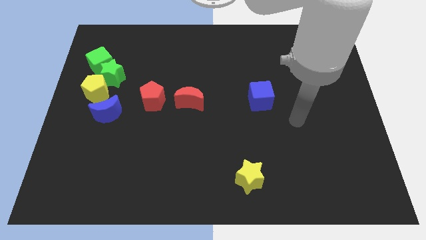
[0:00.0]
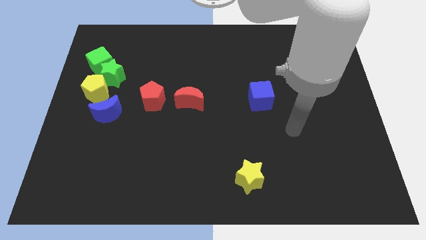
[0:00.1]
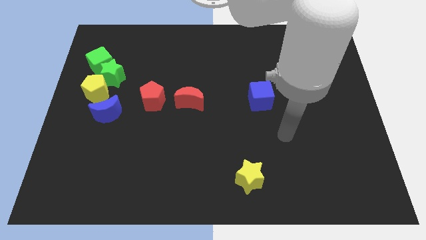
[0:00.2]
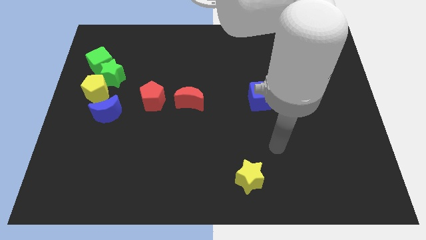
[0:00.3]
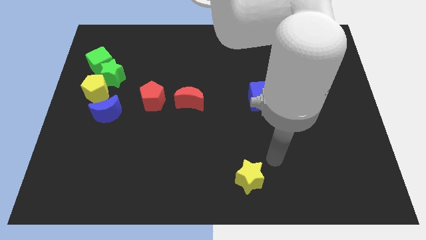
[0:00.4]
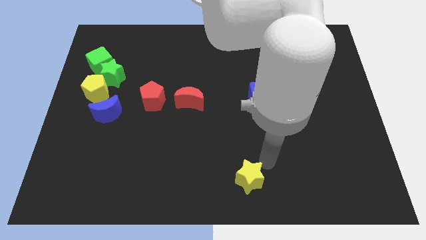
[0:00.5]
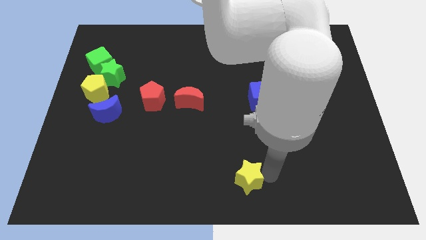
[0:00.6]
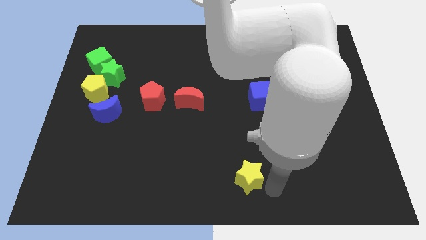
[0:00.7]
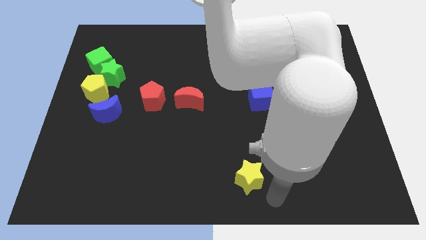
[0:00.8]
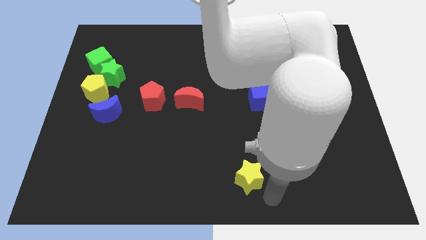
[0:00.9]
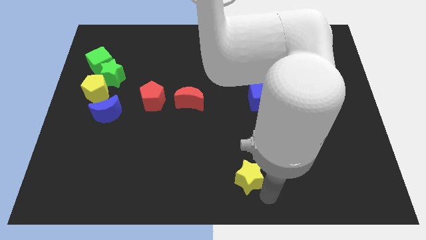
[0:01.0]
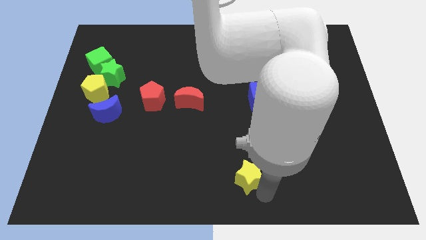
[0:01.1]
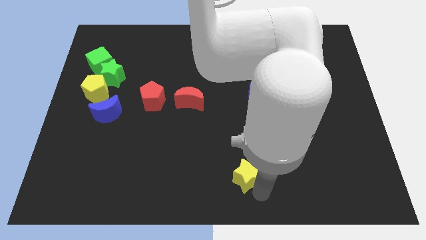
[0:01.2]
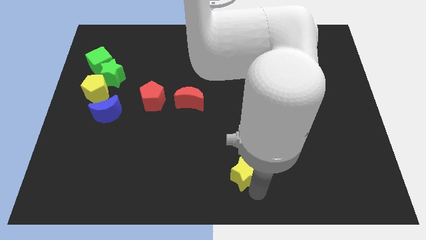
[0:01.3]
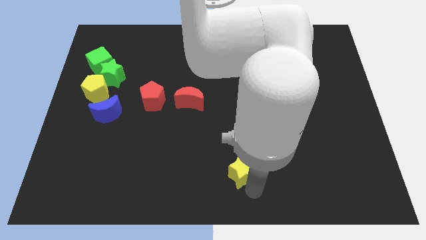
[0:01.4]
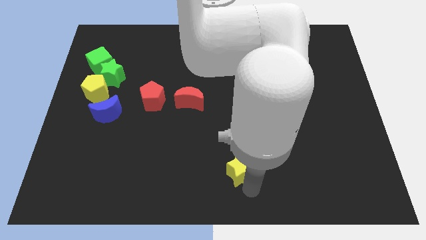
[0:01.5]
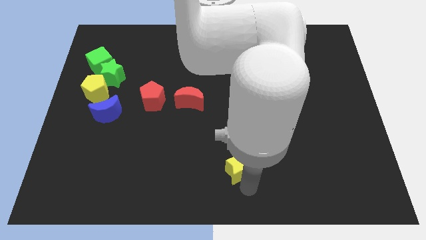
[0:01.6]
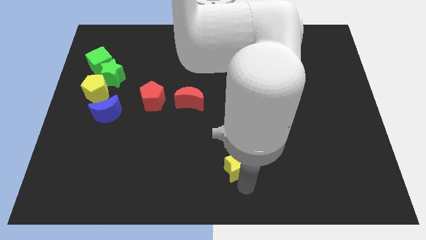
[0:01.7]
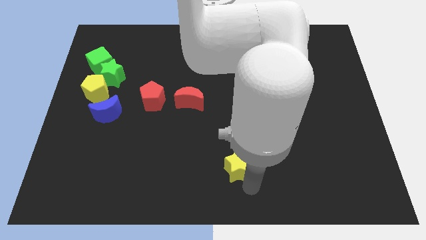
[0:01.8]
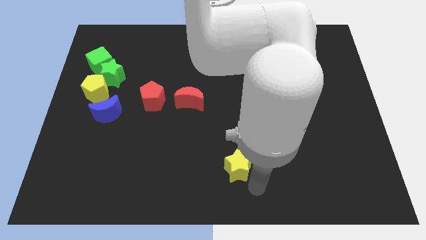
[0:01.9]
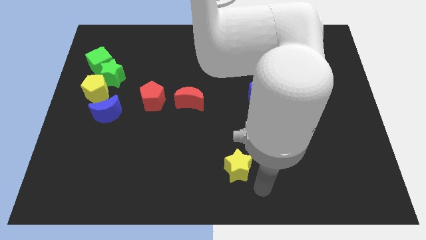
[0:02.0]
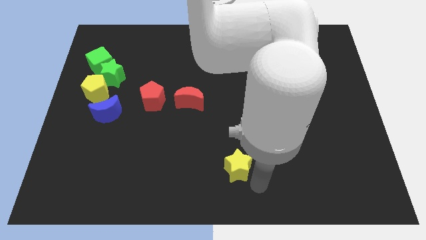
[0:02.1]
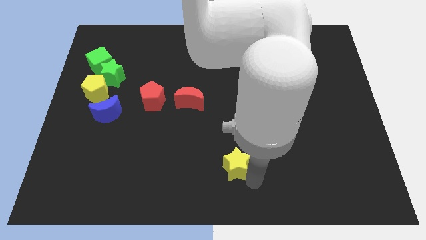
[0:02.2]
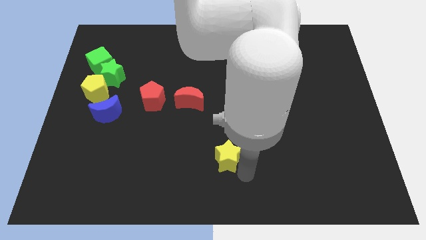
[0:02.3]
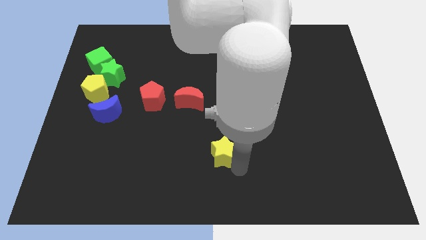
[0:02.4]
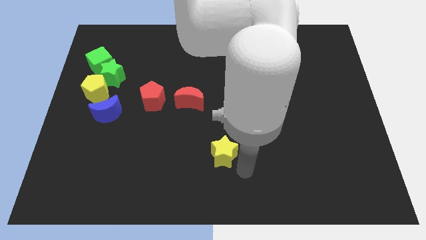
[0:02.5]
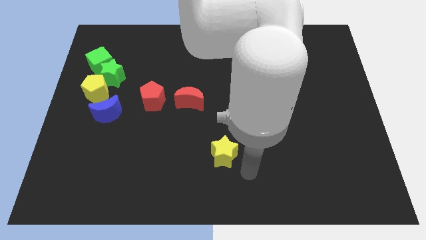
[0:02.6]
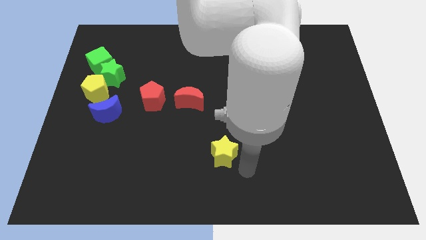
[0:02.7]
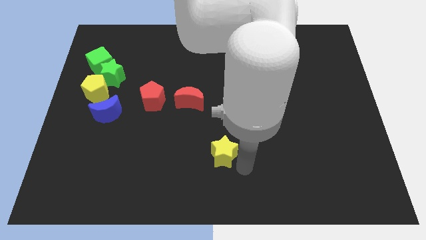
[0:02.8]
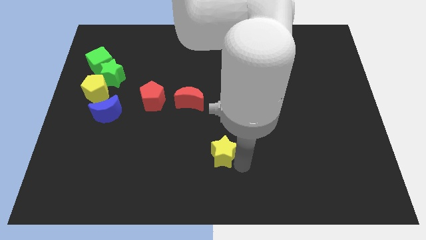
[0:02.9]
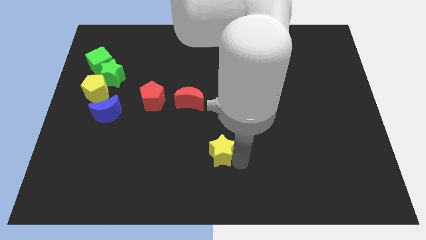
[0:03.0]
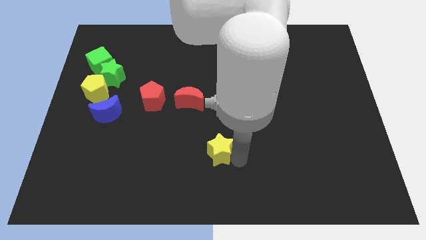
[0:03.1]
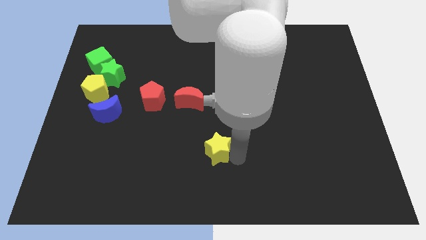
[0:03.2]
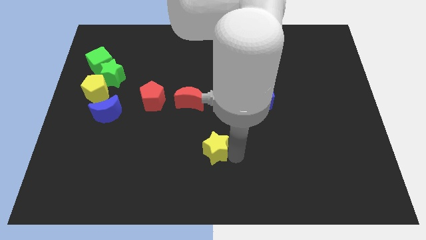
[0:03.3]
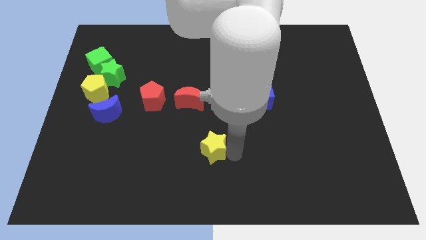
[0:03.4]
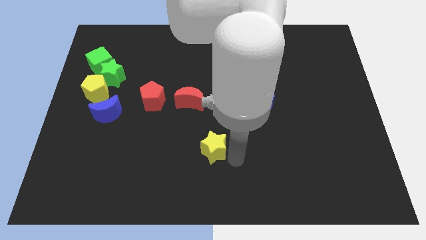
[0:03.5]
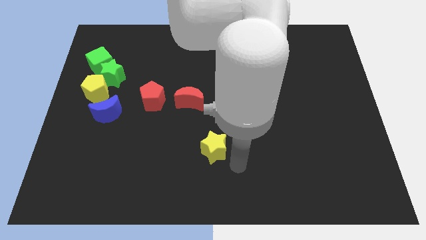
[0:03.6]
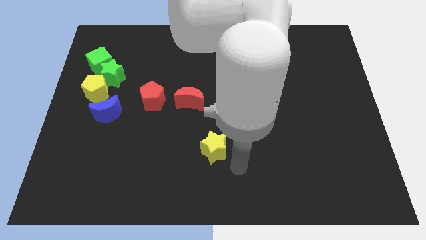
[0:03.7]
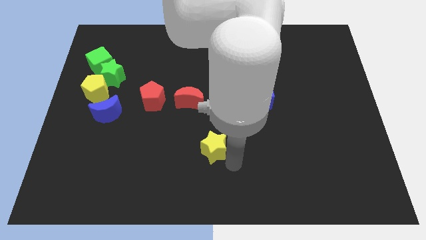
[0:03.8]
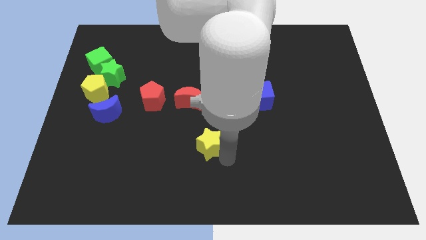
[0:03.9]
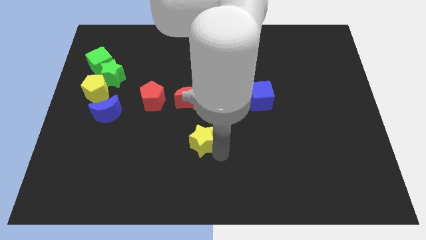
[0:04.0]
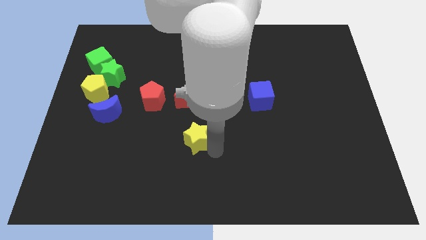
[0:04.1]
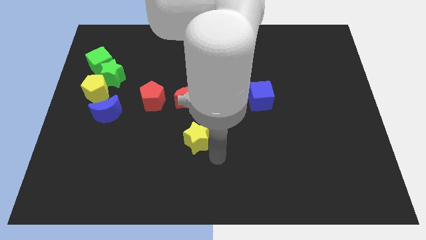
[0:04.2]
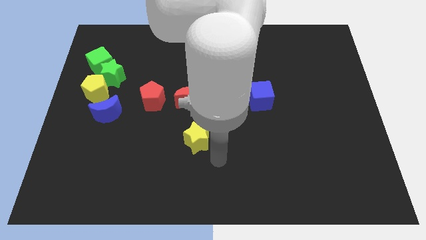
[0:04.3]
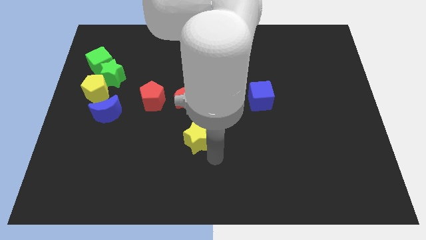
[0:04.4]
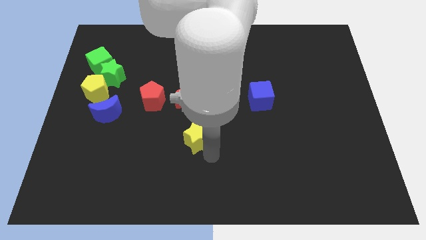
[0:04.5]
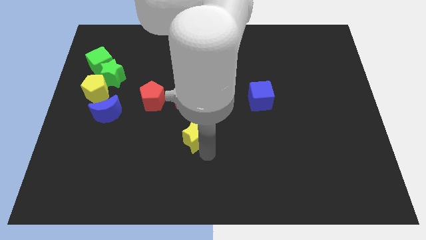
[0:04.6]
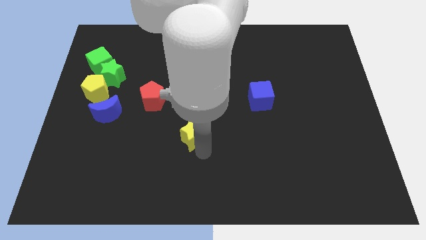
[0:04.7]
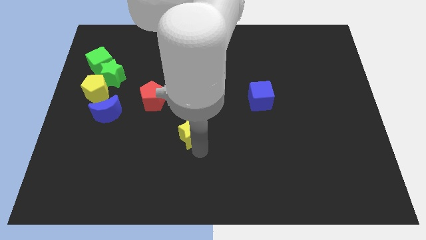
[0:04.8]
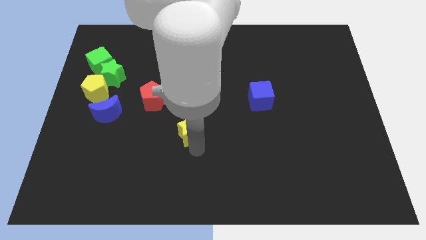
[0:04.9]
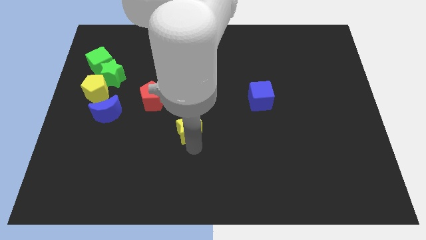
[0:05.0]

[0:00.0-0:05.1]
push the yellow star to the bottom right side of the red pentagon

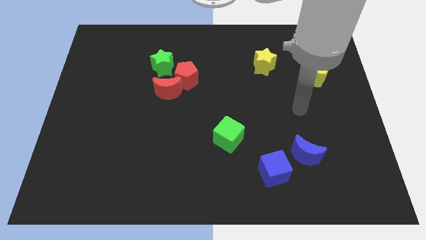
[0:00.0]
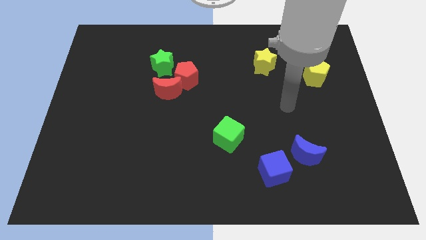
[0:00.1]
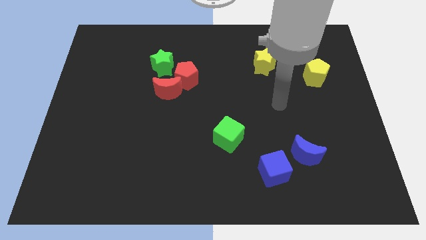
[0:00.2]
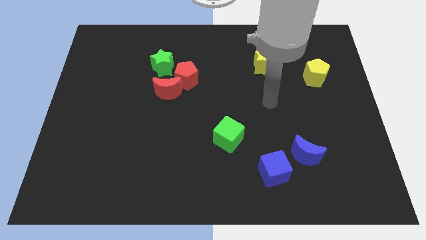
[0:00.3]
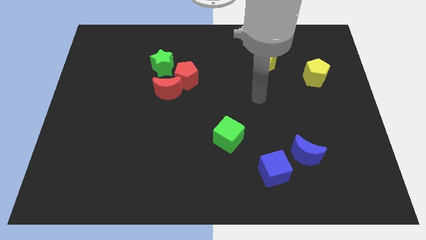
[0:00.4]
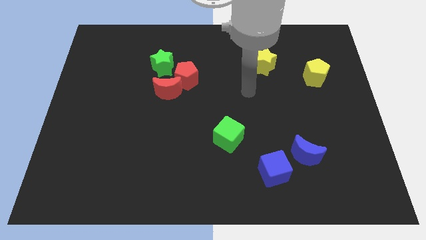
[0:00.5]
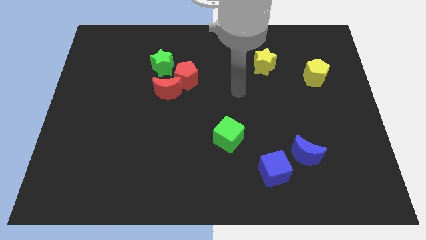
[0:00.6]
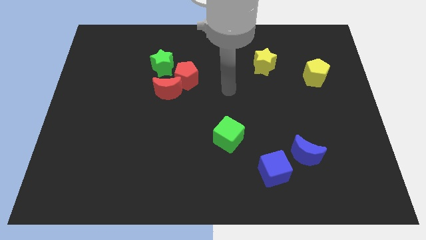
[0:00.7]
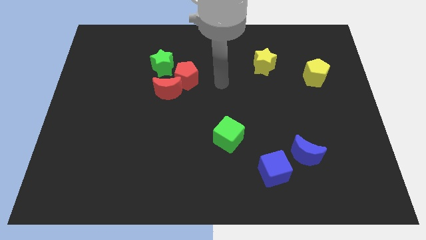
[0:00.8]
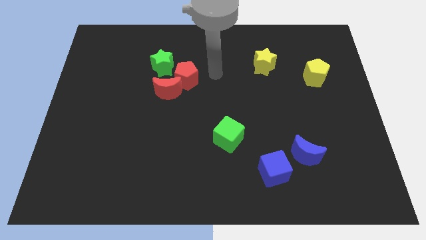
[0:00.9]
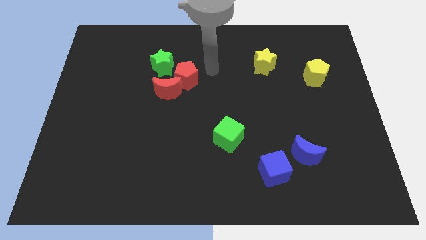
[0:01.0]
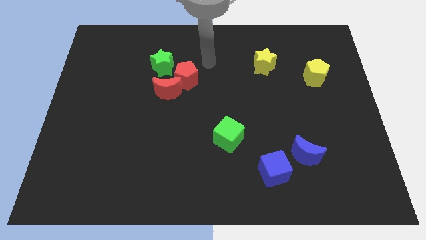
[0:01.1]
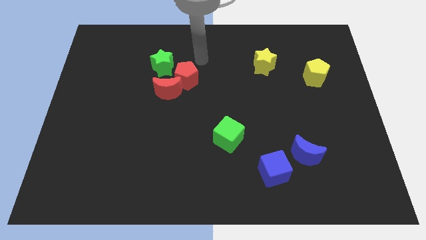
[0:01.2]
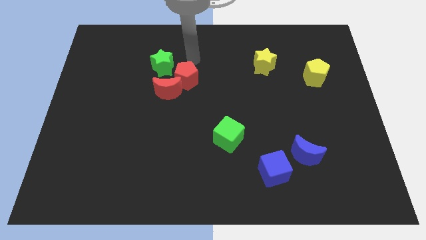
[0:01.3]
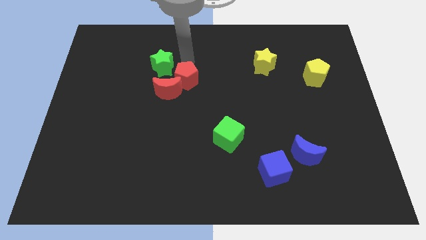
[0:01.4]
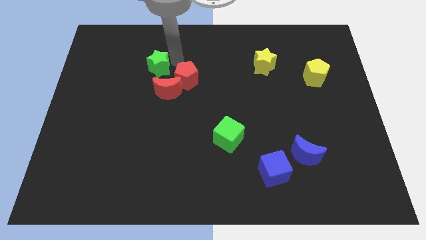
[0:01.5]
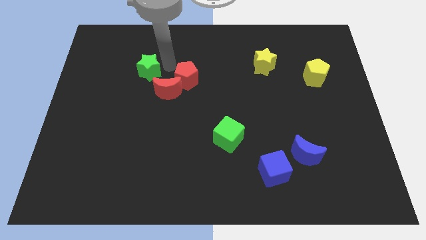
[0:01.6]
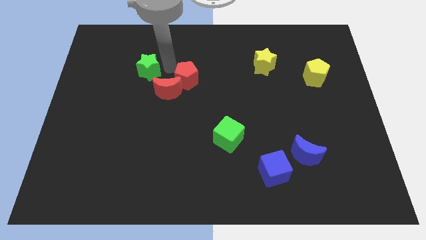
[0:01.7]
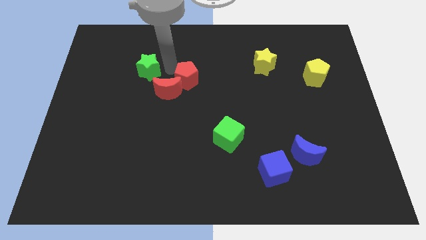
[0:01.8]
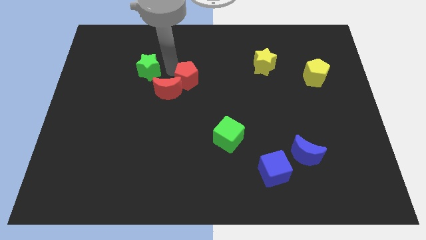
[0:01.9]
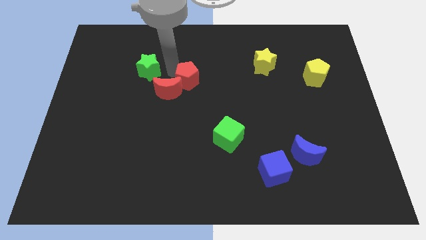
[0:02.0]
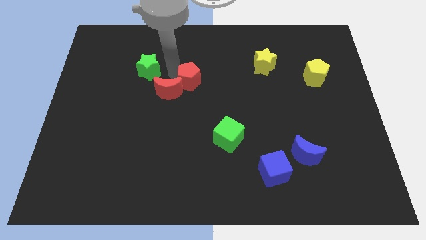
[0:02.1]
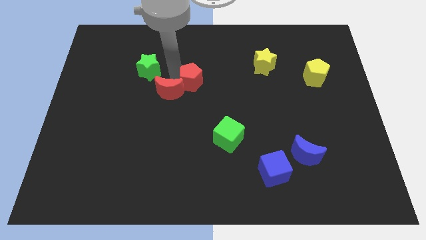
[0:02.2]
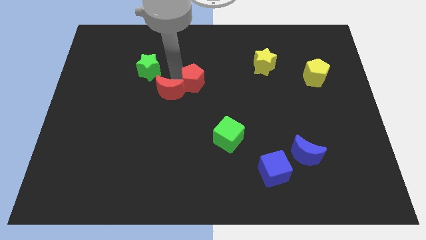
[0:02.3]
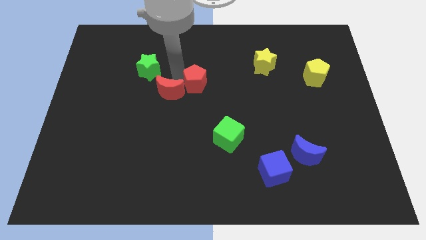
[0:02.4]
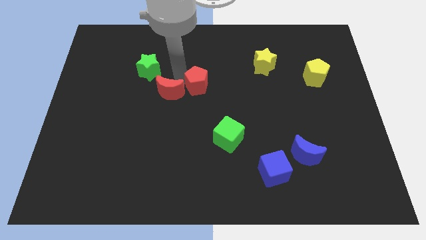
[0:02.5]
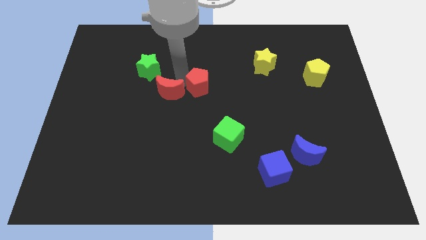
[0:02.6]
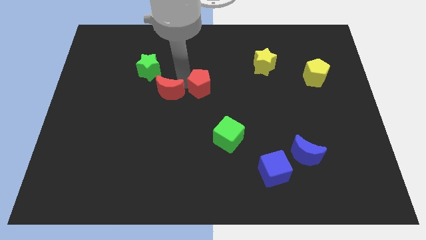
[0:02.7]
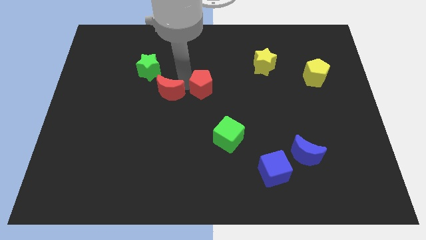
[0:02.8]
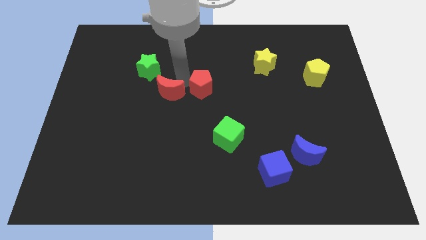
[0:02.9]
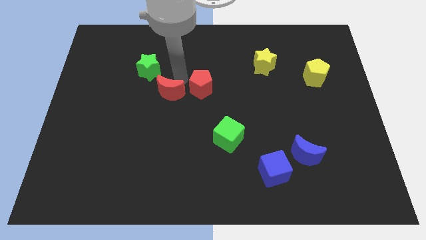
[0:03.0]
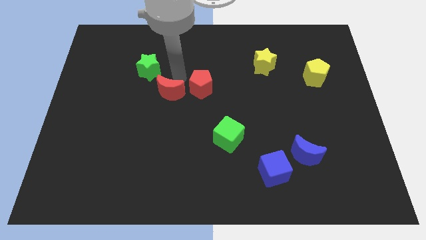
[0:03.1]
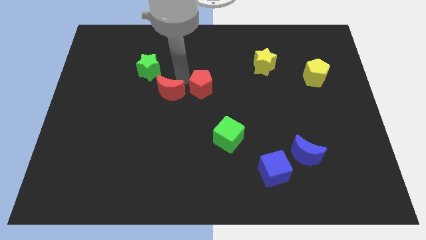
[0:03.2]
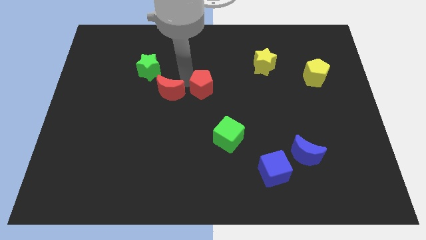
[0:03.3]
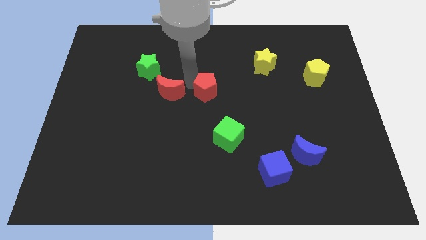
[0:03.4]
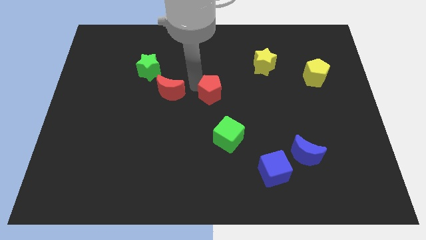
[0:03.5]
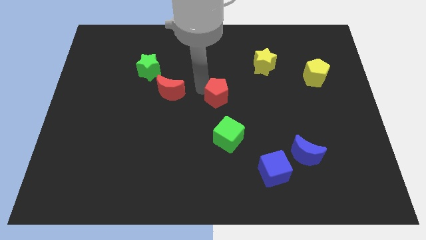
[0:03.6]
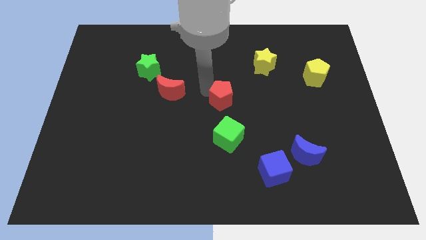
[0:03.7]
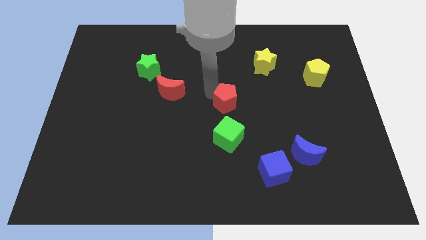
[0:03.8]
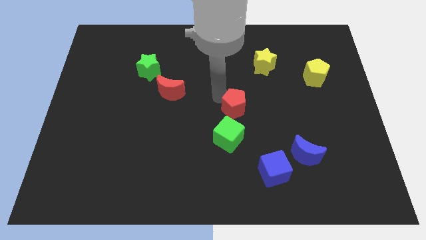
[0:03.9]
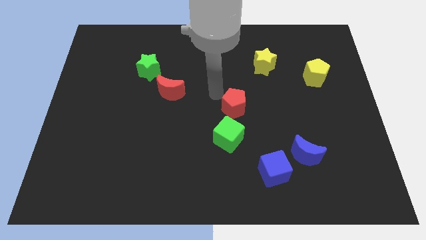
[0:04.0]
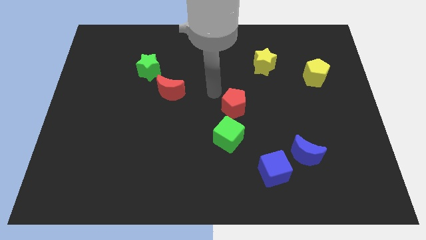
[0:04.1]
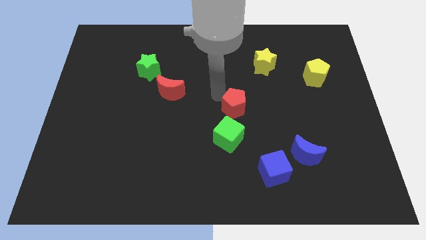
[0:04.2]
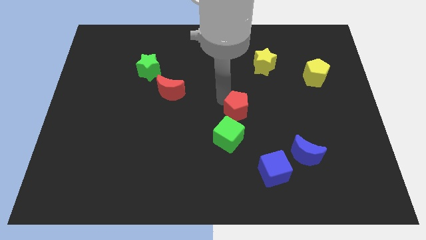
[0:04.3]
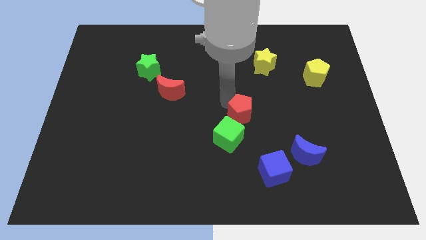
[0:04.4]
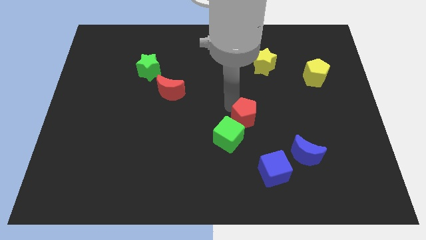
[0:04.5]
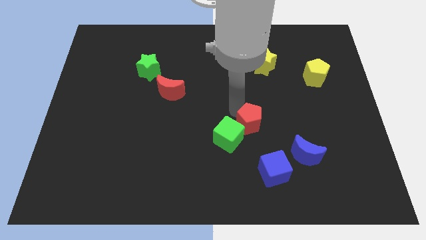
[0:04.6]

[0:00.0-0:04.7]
slide the red pentagon to the top side of the blue cube
